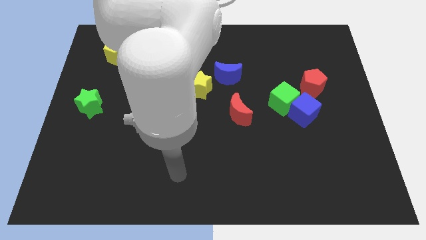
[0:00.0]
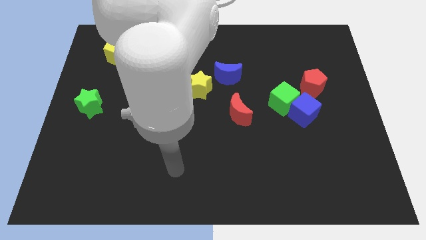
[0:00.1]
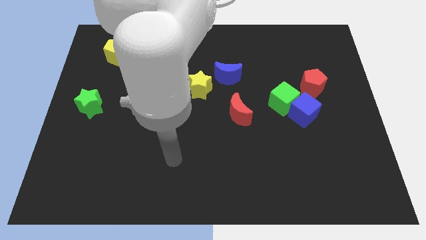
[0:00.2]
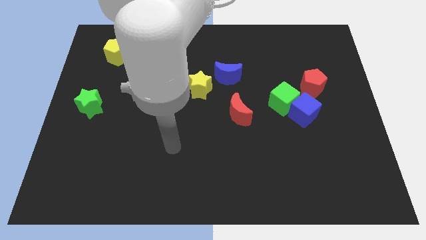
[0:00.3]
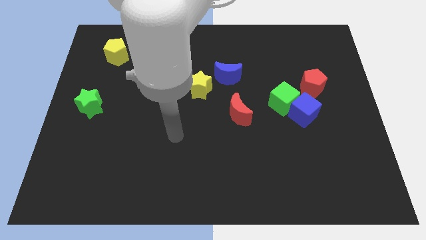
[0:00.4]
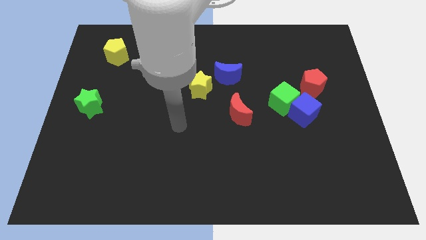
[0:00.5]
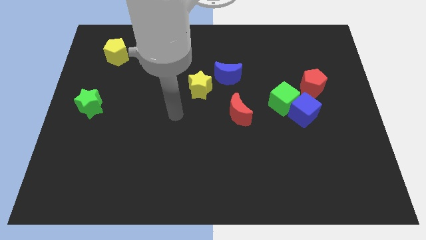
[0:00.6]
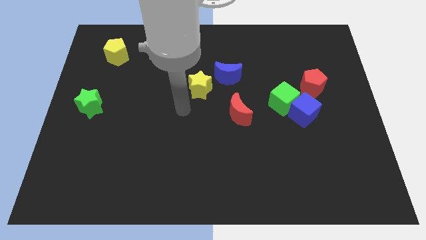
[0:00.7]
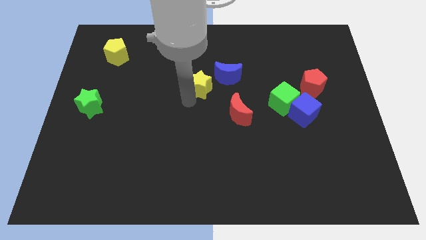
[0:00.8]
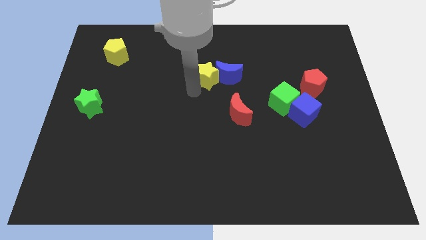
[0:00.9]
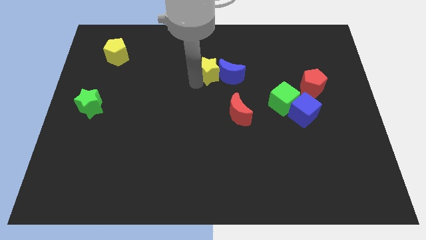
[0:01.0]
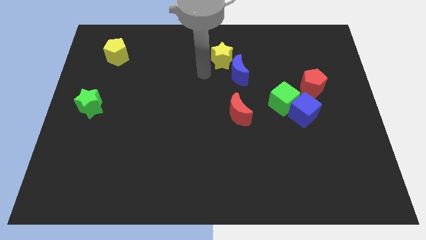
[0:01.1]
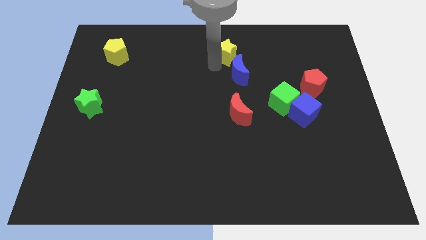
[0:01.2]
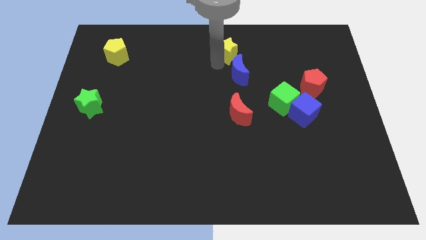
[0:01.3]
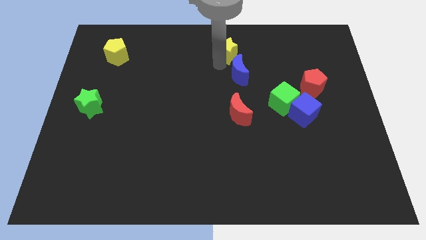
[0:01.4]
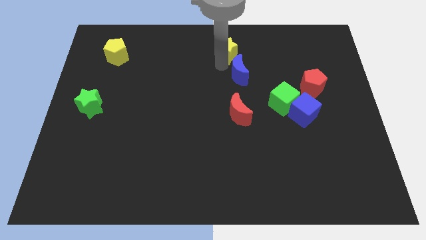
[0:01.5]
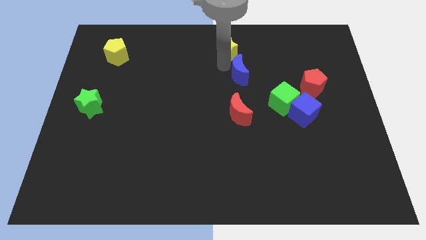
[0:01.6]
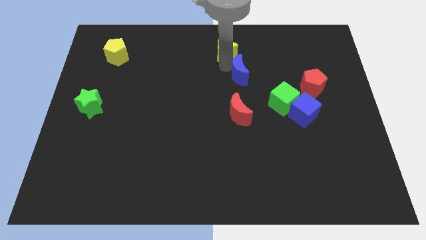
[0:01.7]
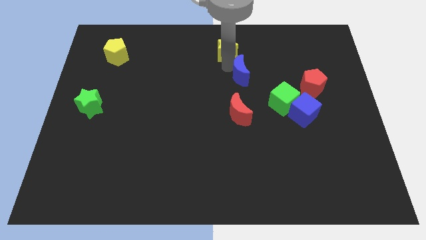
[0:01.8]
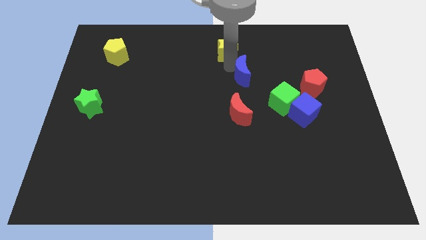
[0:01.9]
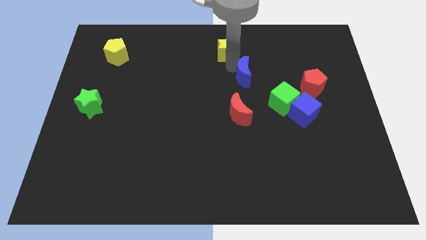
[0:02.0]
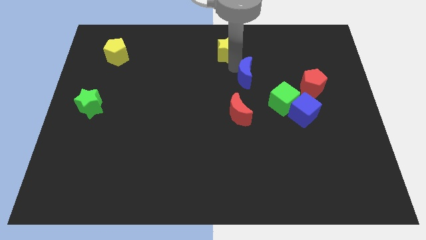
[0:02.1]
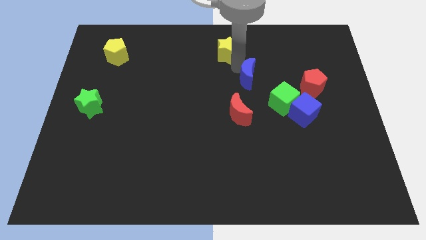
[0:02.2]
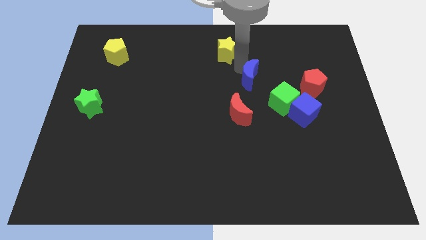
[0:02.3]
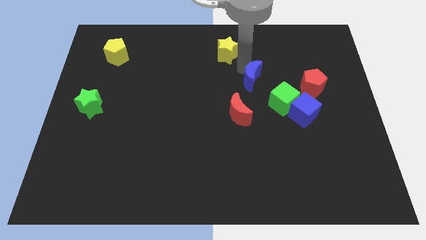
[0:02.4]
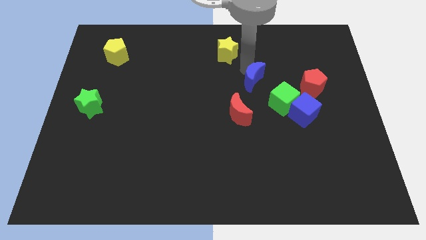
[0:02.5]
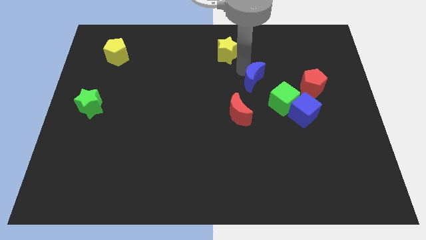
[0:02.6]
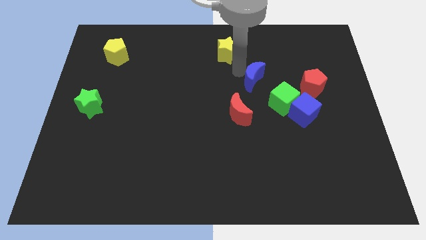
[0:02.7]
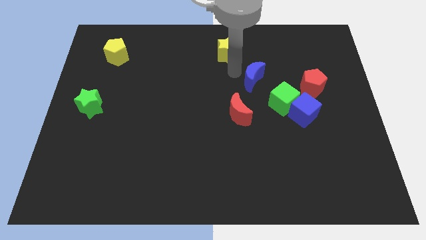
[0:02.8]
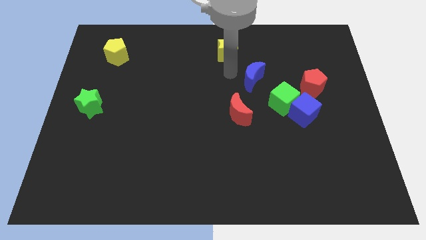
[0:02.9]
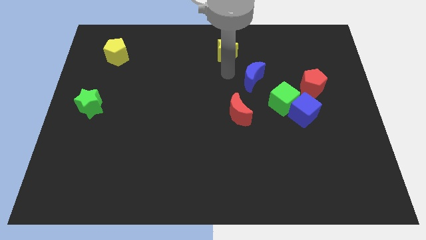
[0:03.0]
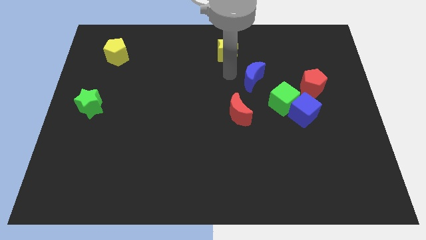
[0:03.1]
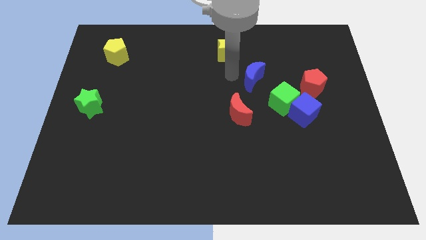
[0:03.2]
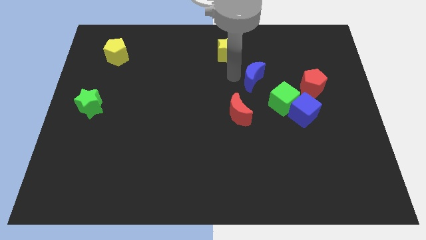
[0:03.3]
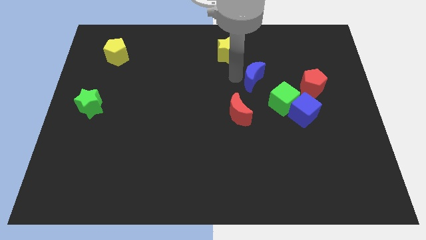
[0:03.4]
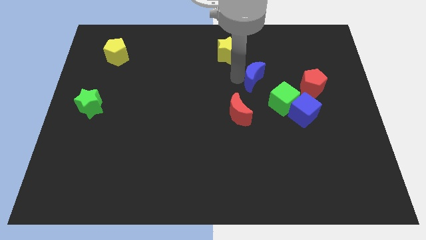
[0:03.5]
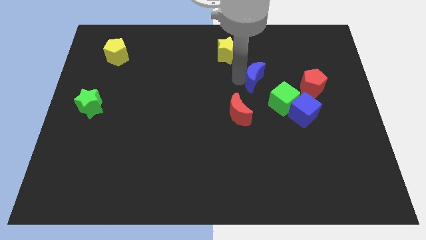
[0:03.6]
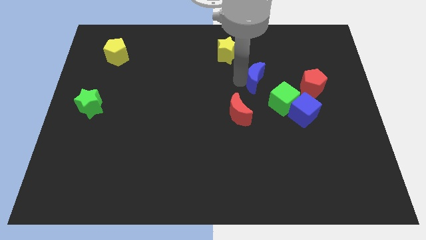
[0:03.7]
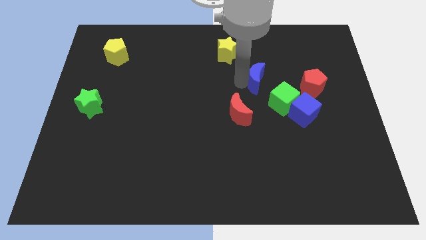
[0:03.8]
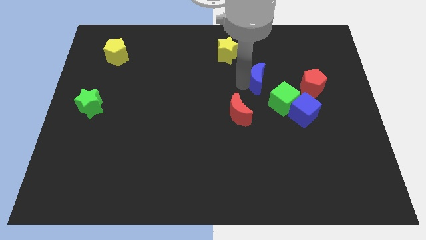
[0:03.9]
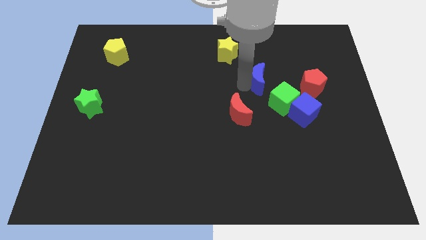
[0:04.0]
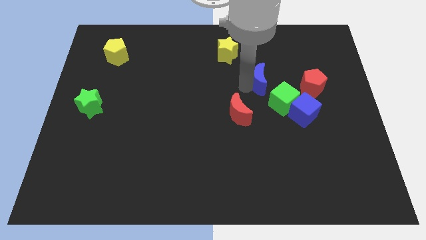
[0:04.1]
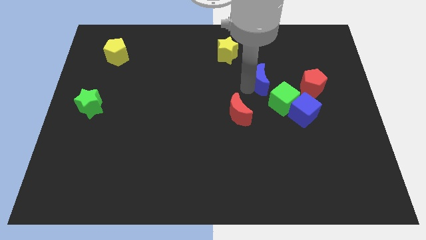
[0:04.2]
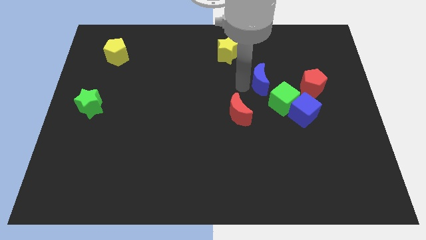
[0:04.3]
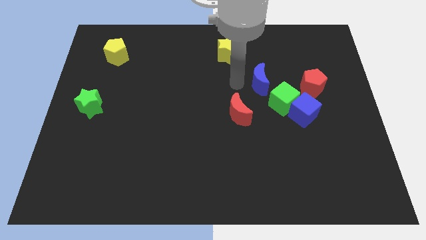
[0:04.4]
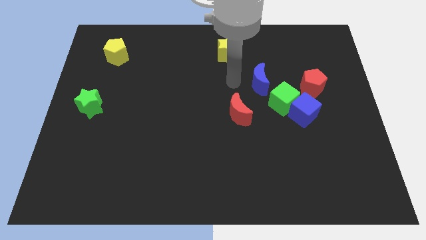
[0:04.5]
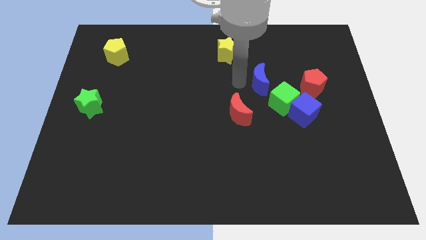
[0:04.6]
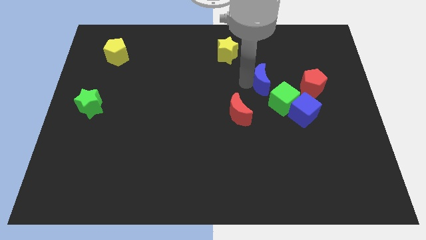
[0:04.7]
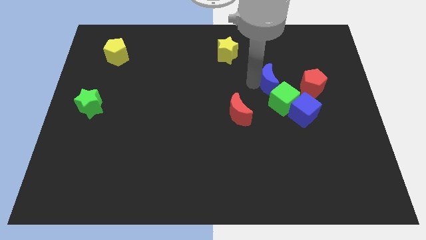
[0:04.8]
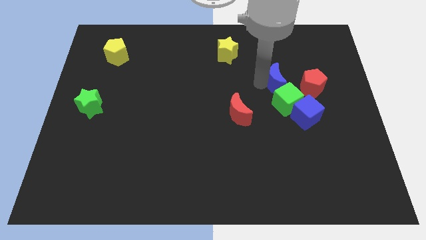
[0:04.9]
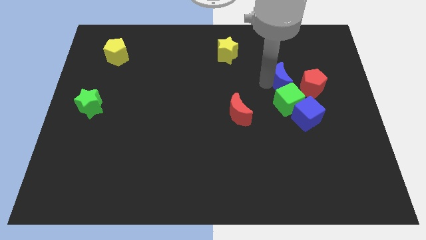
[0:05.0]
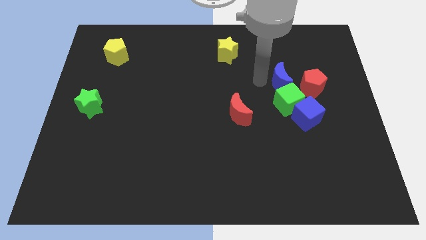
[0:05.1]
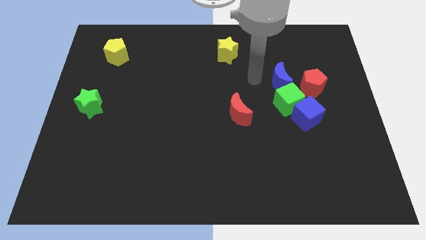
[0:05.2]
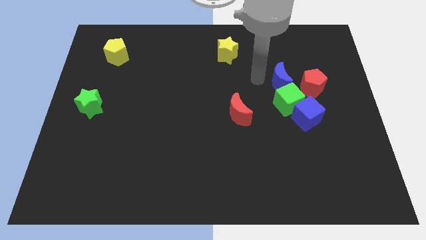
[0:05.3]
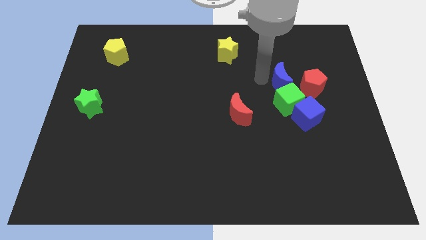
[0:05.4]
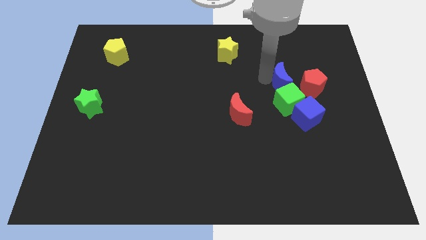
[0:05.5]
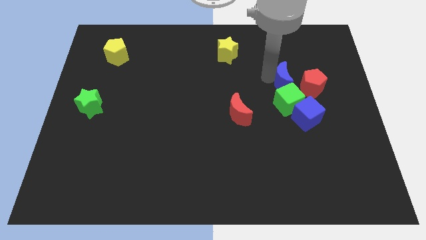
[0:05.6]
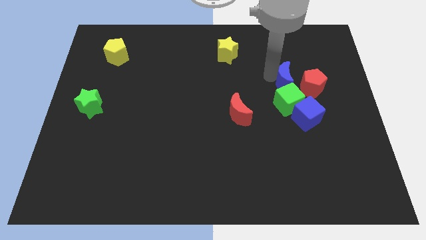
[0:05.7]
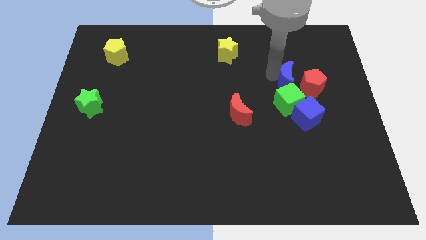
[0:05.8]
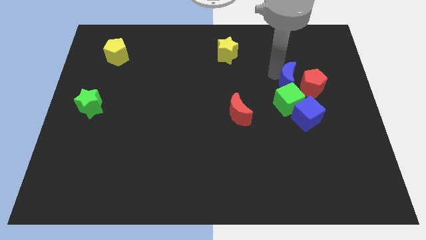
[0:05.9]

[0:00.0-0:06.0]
push the blue moon next to the red pentagon

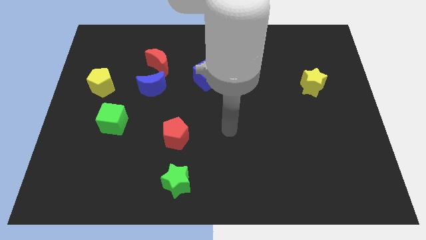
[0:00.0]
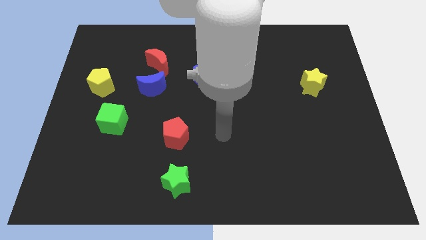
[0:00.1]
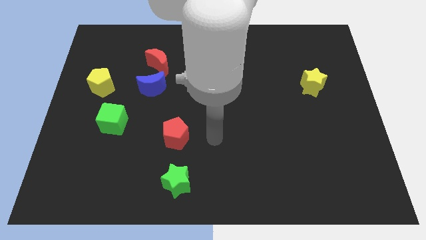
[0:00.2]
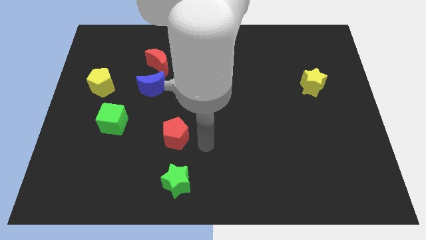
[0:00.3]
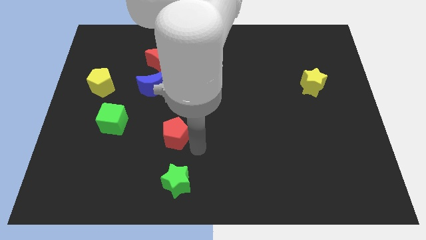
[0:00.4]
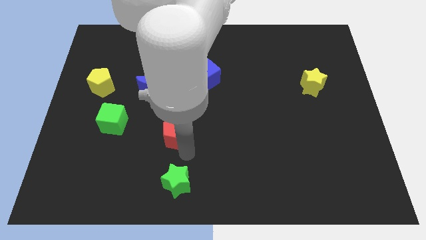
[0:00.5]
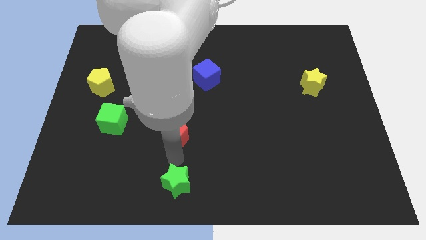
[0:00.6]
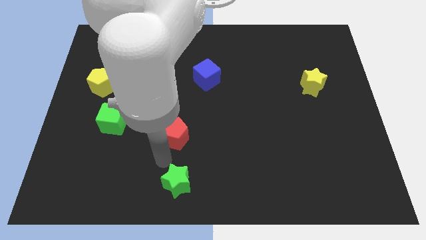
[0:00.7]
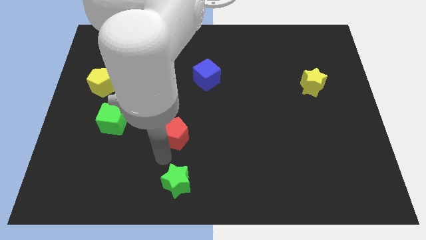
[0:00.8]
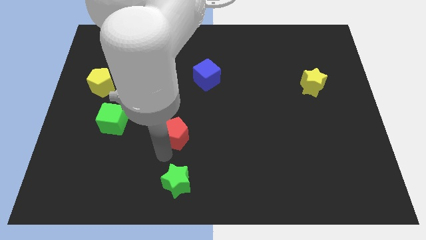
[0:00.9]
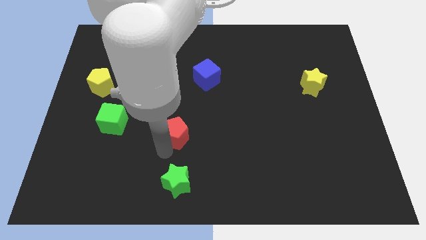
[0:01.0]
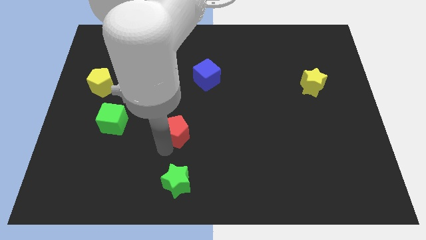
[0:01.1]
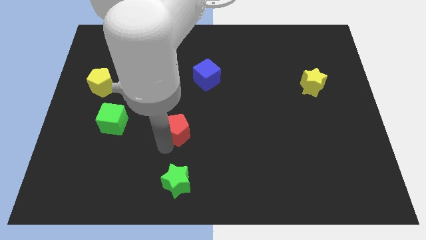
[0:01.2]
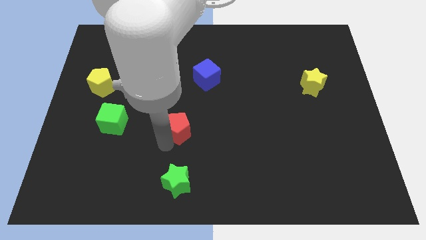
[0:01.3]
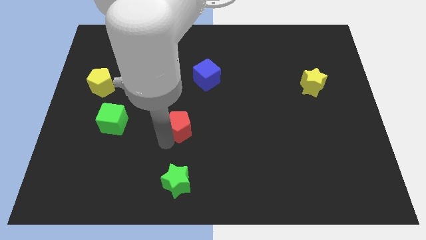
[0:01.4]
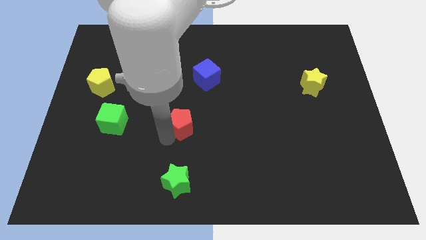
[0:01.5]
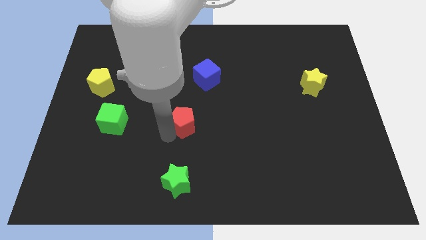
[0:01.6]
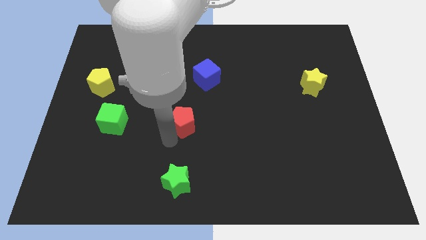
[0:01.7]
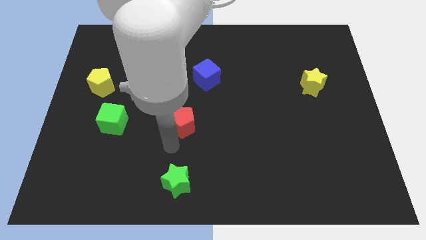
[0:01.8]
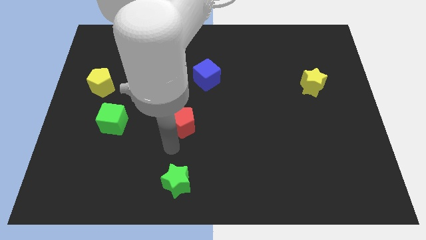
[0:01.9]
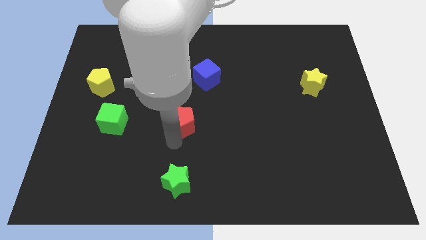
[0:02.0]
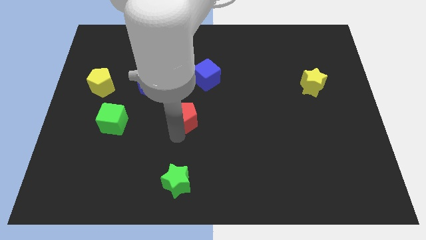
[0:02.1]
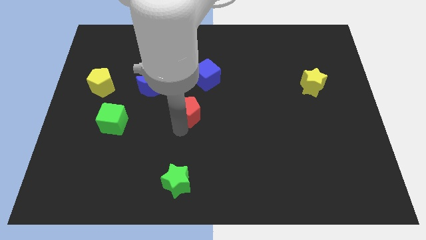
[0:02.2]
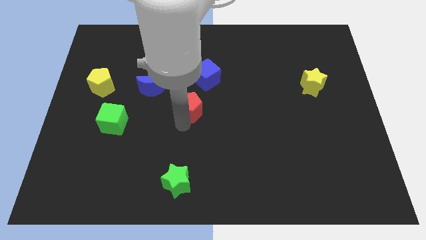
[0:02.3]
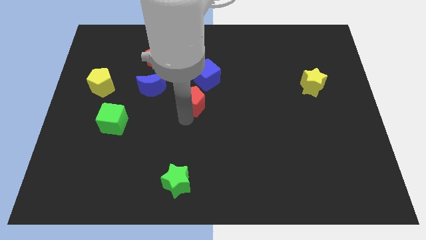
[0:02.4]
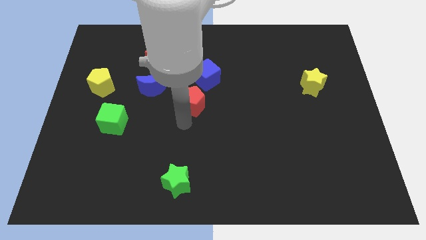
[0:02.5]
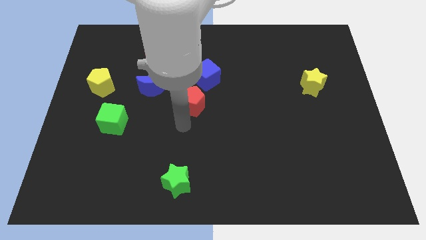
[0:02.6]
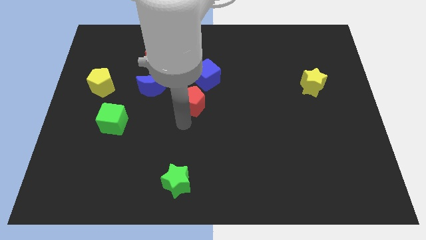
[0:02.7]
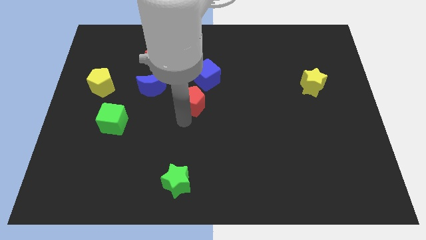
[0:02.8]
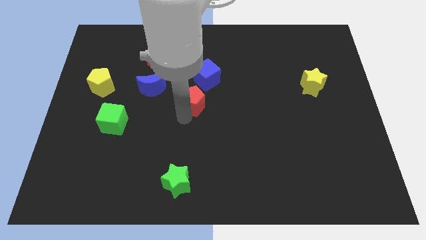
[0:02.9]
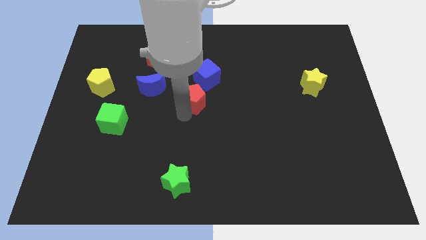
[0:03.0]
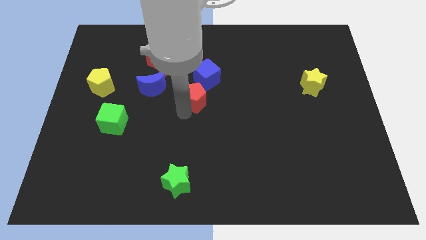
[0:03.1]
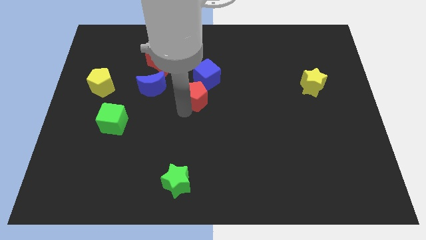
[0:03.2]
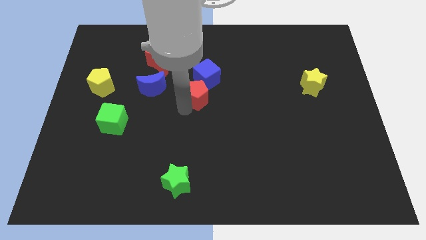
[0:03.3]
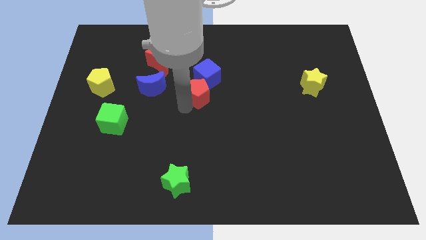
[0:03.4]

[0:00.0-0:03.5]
put the red pentagon towards the blue cube
